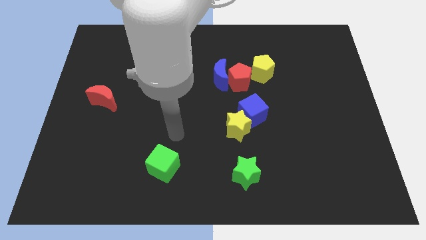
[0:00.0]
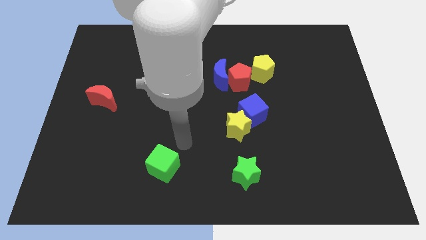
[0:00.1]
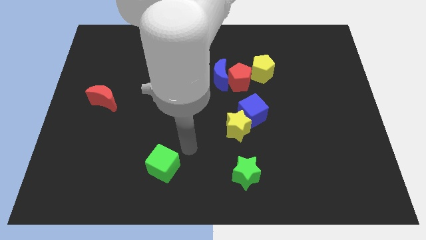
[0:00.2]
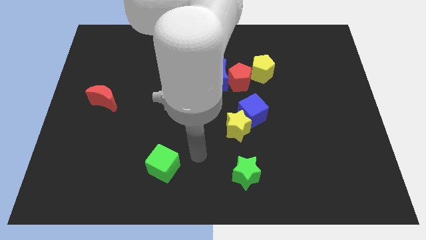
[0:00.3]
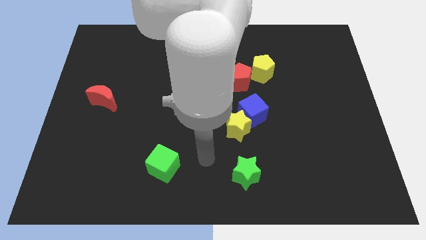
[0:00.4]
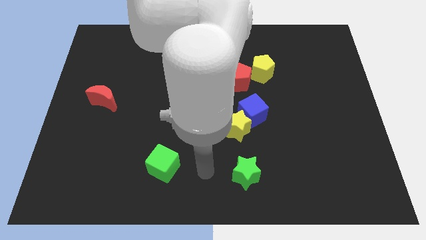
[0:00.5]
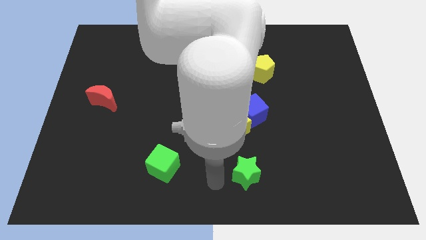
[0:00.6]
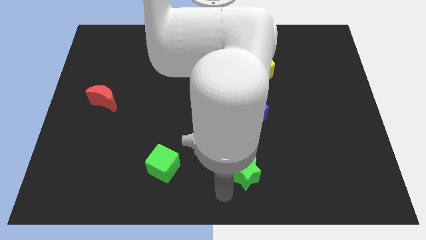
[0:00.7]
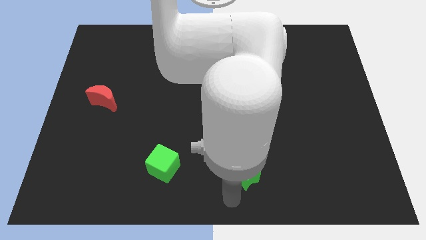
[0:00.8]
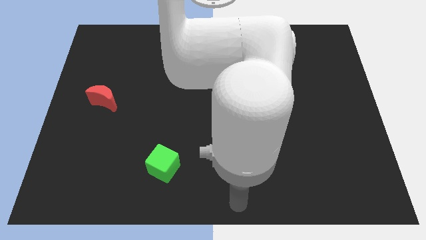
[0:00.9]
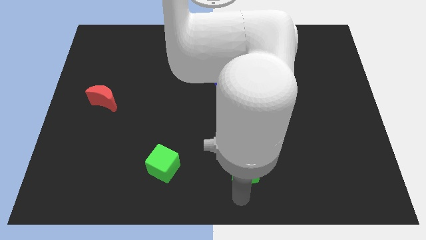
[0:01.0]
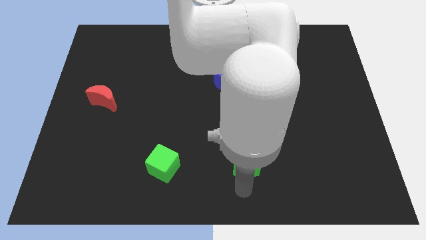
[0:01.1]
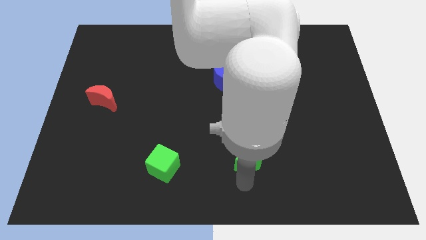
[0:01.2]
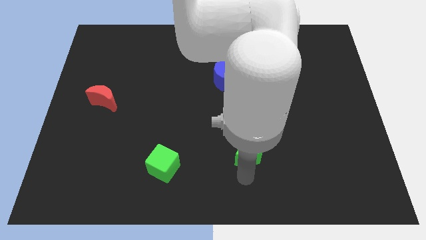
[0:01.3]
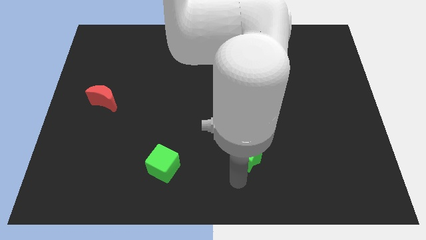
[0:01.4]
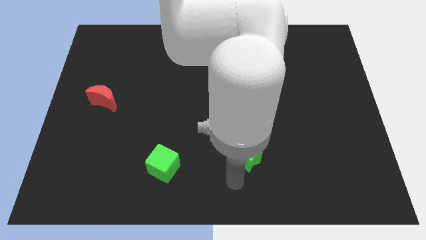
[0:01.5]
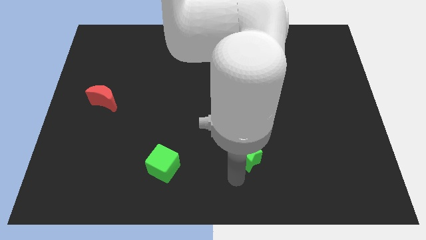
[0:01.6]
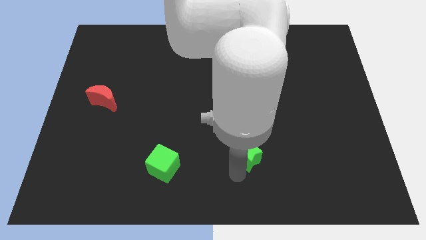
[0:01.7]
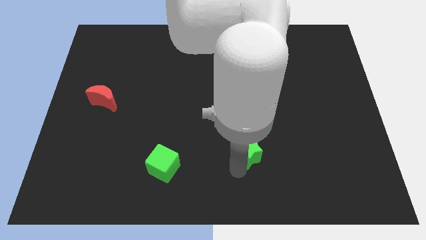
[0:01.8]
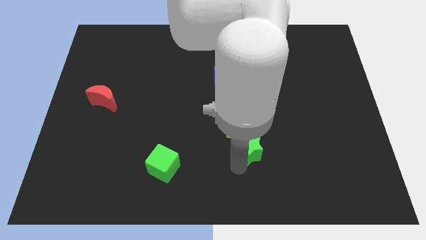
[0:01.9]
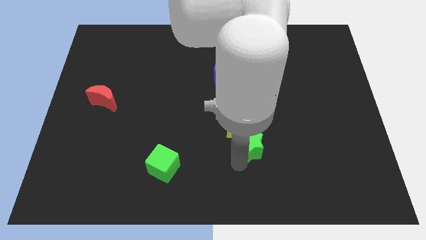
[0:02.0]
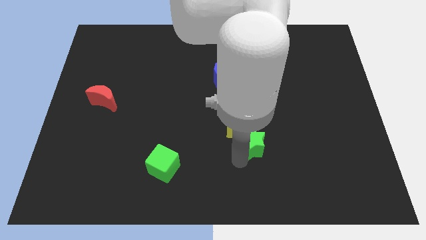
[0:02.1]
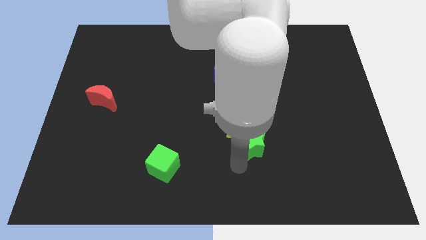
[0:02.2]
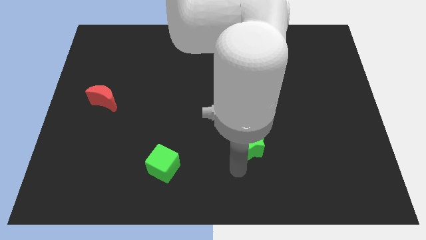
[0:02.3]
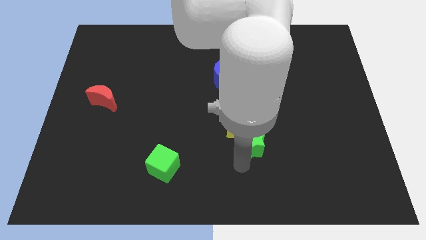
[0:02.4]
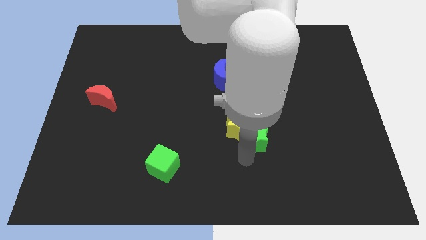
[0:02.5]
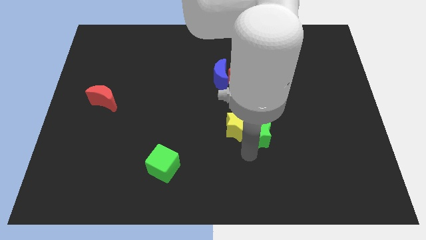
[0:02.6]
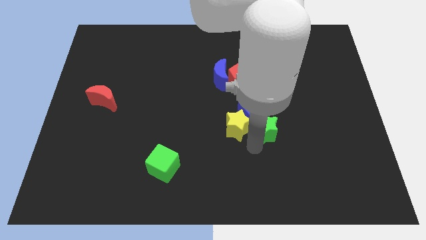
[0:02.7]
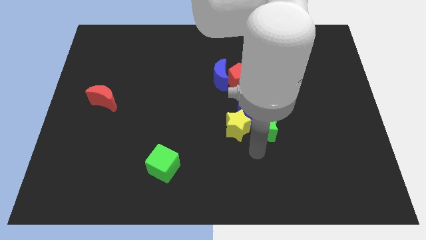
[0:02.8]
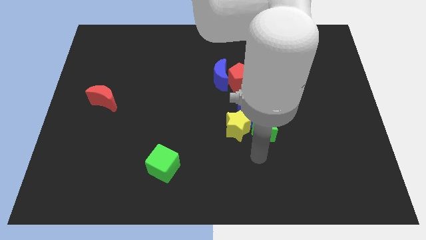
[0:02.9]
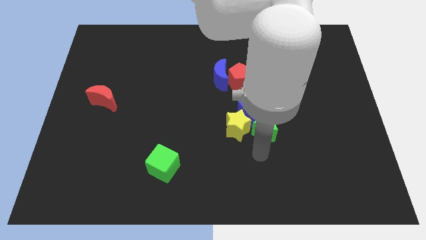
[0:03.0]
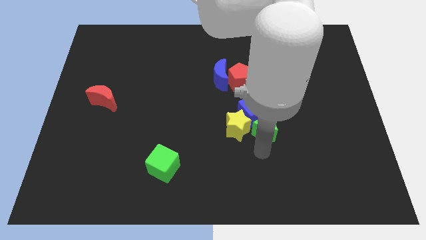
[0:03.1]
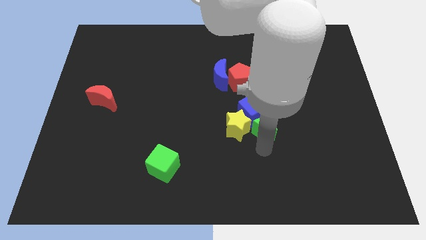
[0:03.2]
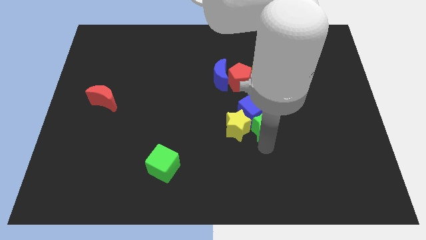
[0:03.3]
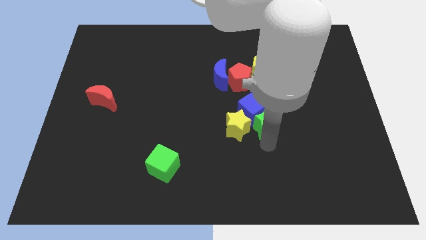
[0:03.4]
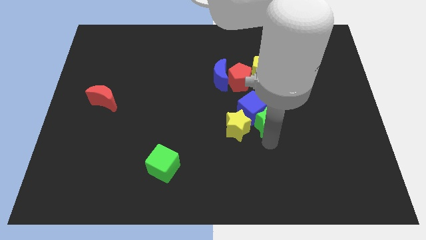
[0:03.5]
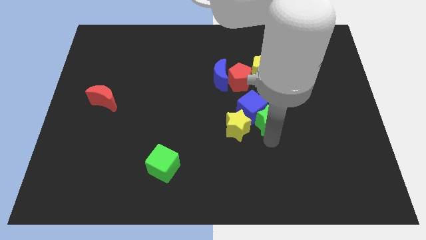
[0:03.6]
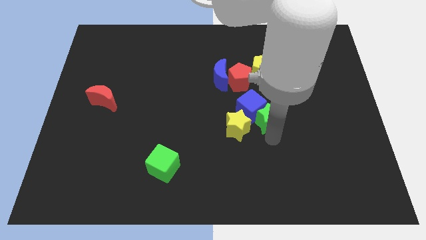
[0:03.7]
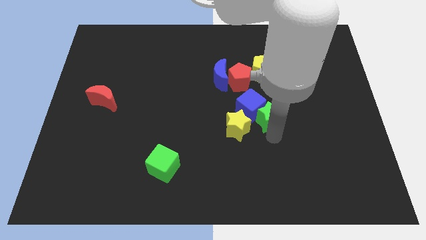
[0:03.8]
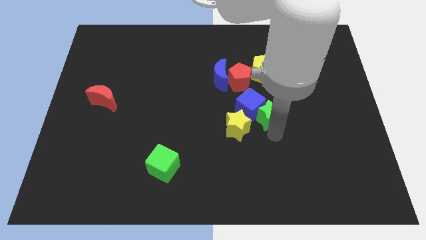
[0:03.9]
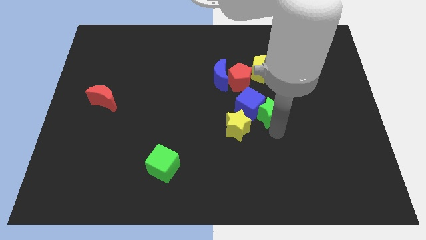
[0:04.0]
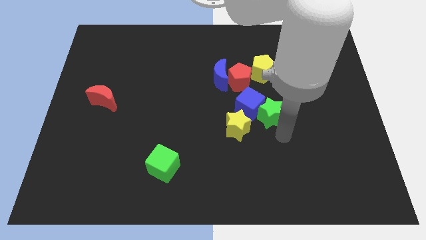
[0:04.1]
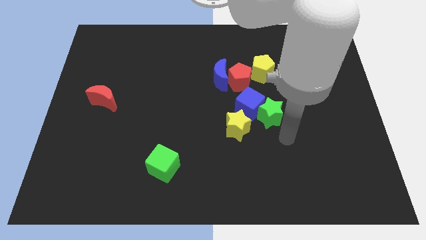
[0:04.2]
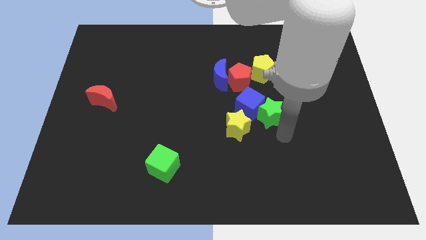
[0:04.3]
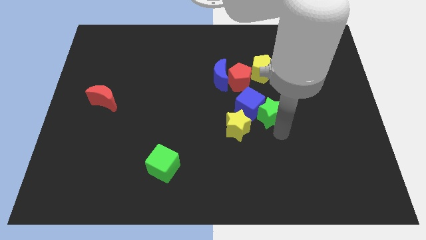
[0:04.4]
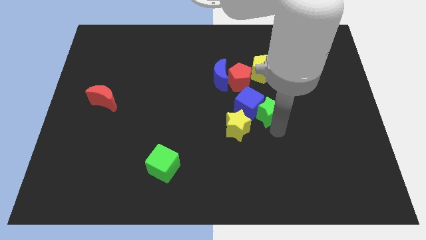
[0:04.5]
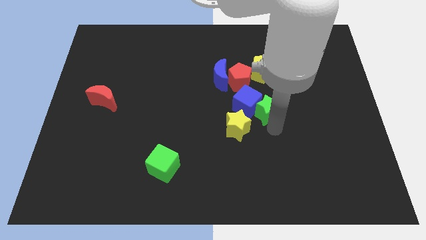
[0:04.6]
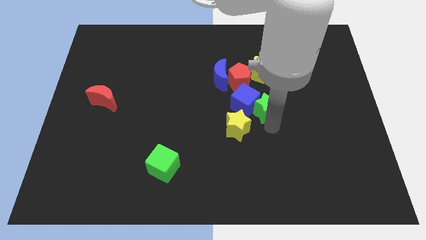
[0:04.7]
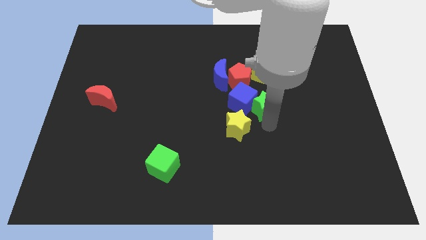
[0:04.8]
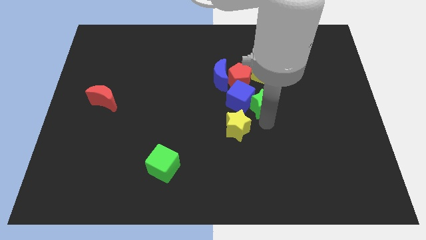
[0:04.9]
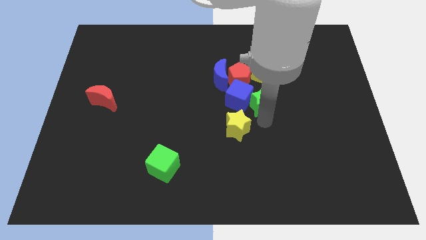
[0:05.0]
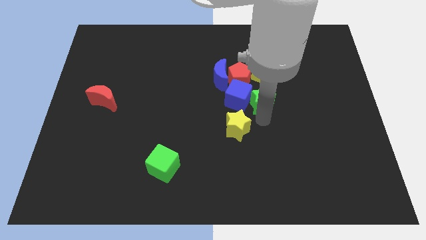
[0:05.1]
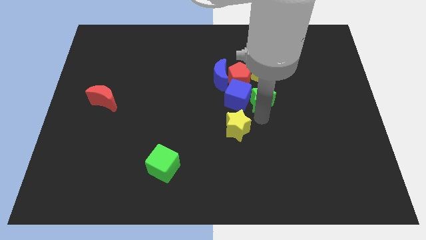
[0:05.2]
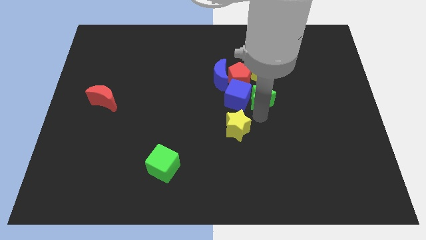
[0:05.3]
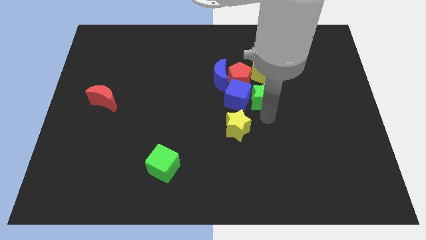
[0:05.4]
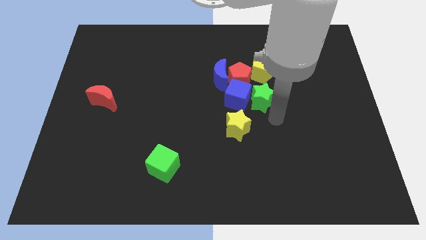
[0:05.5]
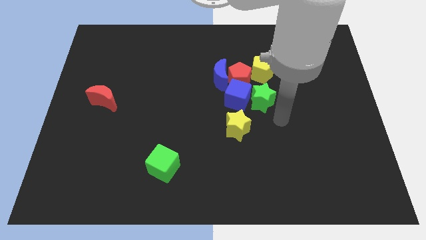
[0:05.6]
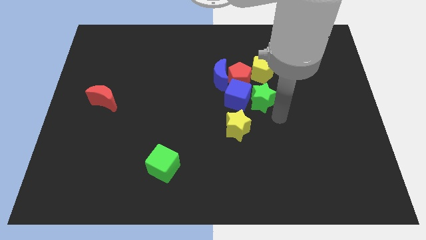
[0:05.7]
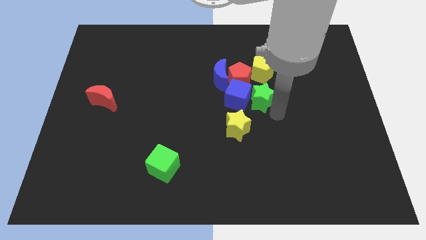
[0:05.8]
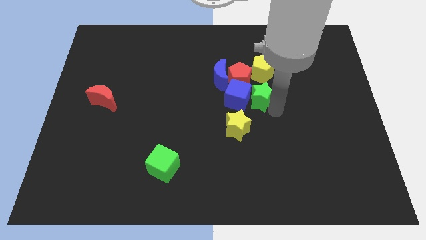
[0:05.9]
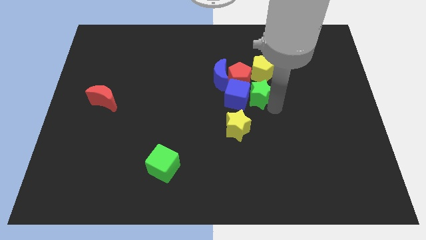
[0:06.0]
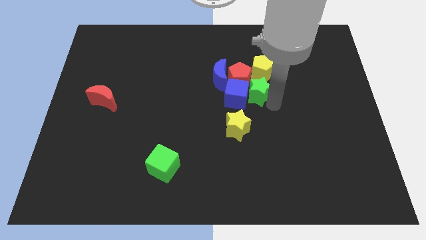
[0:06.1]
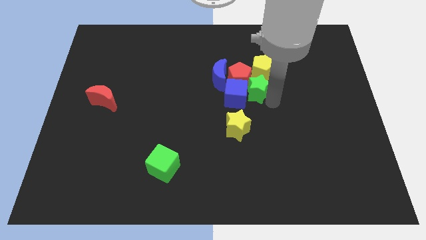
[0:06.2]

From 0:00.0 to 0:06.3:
push the green star close to the red pentagon

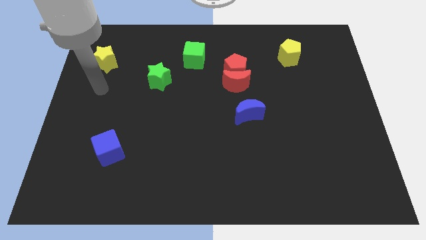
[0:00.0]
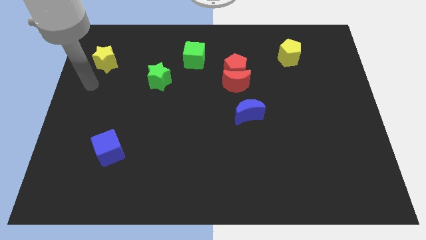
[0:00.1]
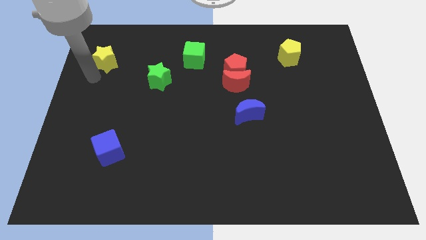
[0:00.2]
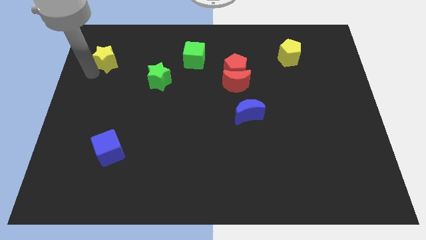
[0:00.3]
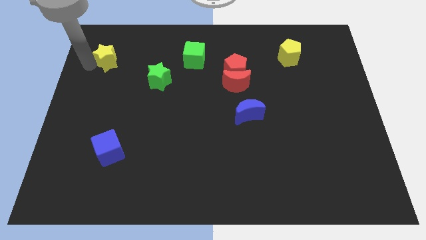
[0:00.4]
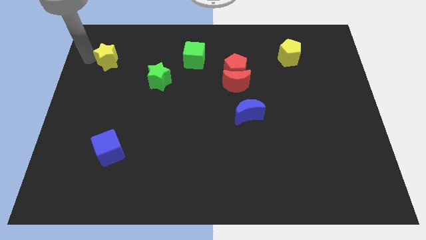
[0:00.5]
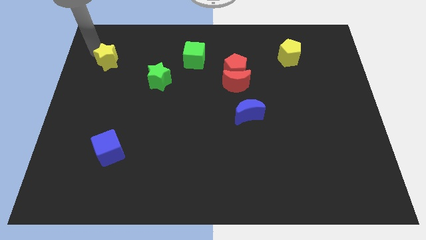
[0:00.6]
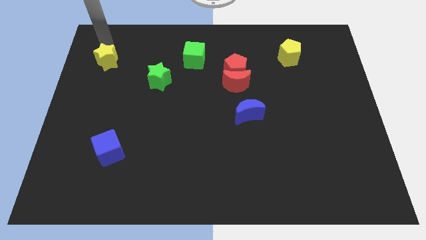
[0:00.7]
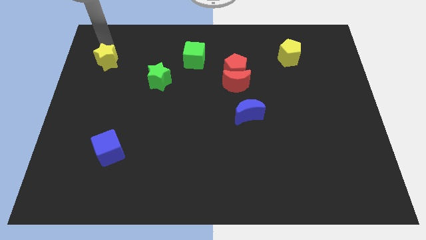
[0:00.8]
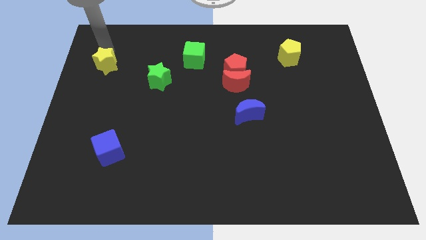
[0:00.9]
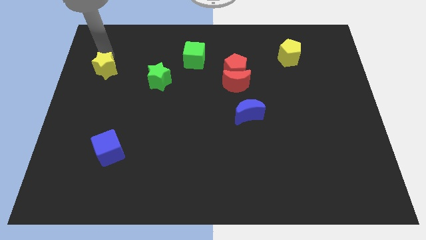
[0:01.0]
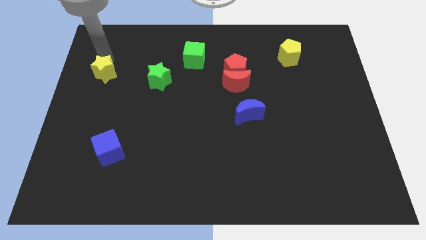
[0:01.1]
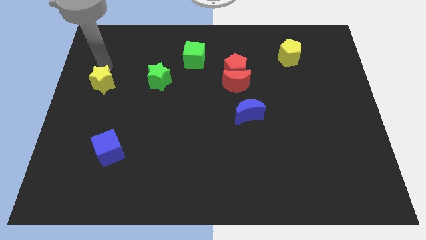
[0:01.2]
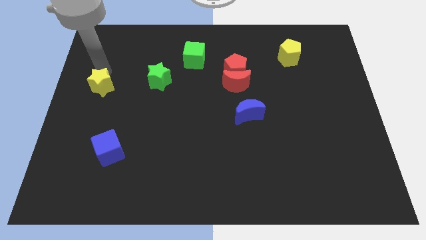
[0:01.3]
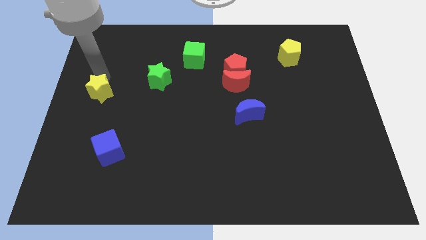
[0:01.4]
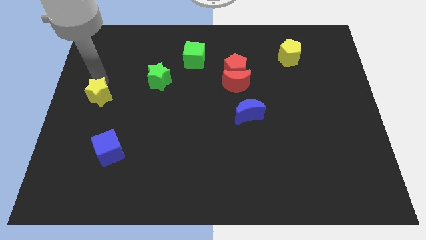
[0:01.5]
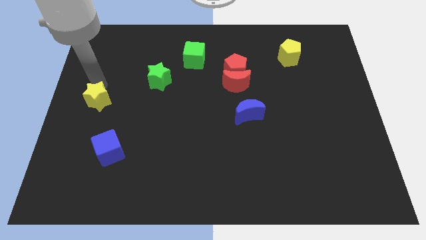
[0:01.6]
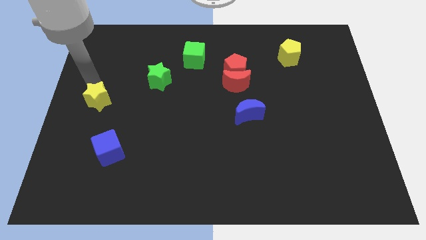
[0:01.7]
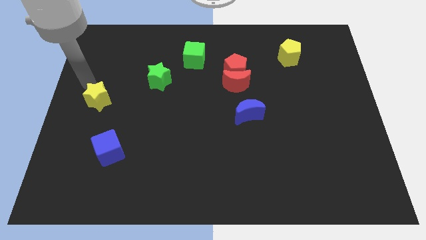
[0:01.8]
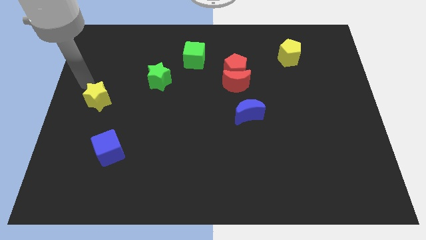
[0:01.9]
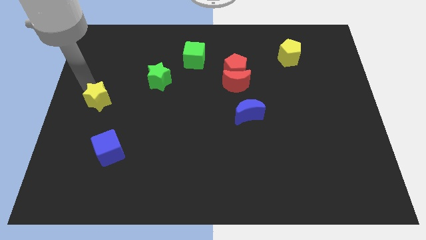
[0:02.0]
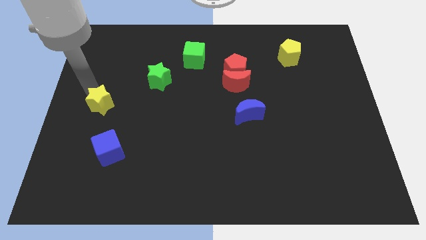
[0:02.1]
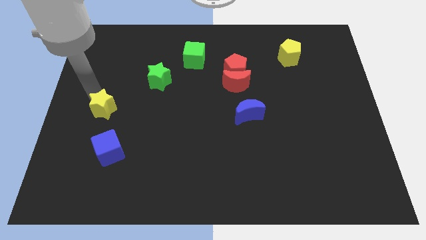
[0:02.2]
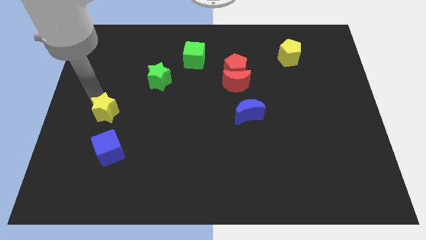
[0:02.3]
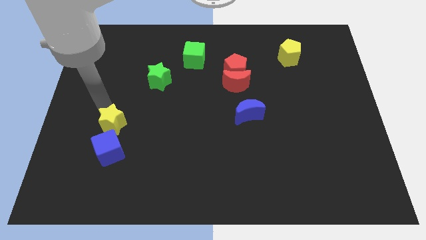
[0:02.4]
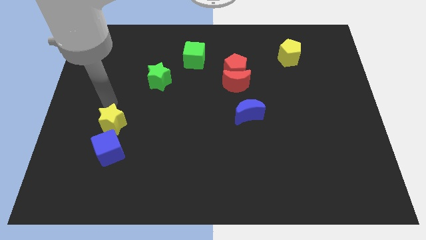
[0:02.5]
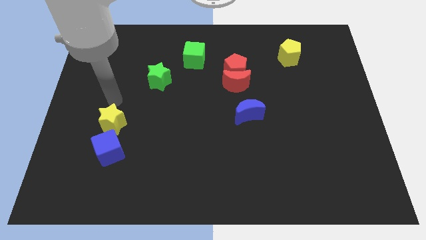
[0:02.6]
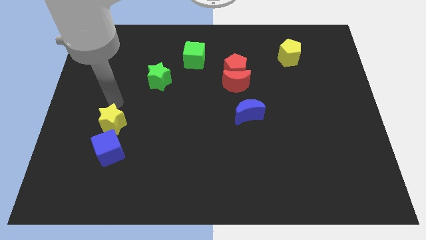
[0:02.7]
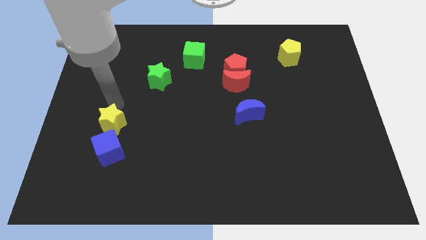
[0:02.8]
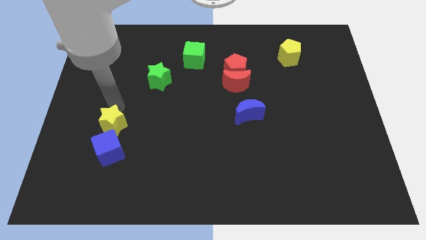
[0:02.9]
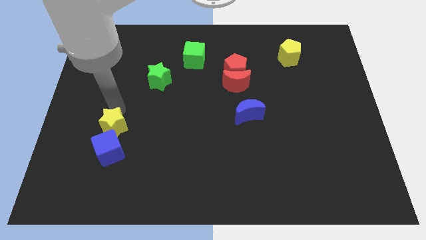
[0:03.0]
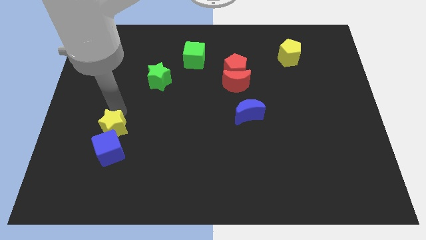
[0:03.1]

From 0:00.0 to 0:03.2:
move the yellow star towards the blue cube
